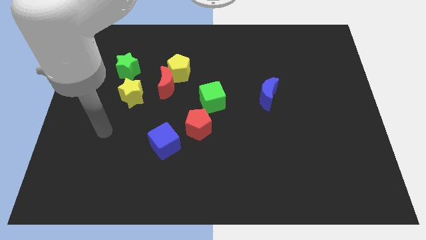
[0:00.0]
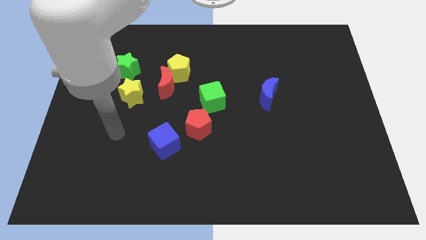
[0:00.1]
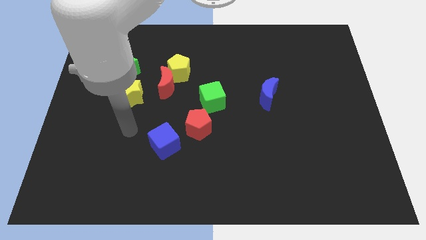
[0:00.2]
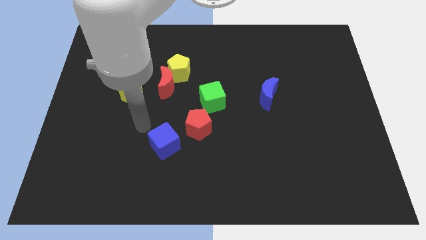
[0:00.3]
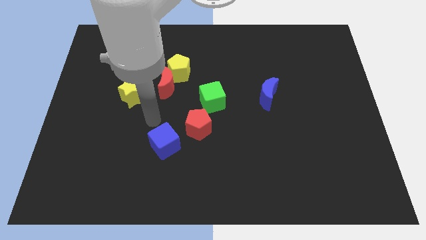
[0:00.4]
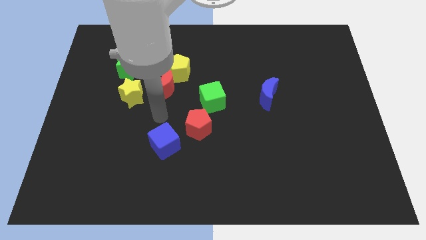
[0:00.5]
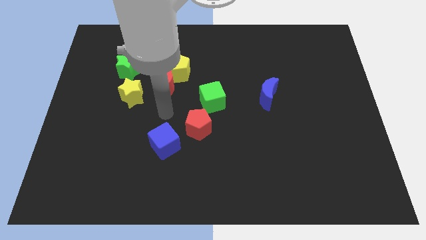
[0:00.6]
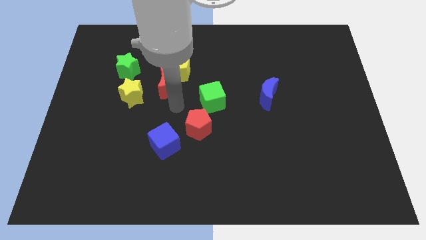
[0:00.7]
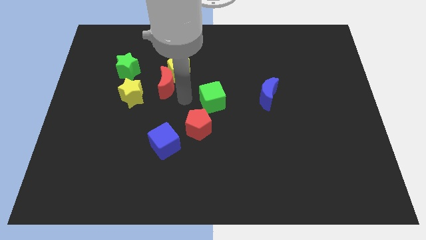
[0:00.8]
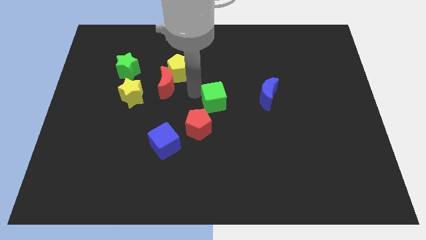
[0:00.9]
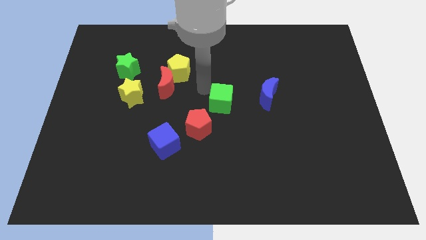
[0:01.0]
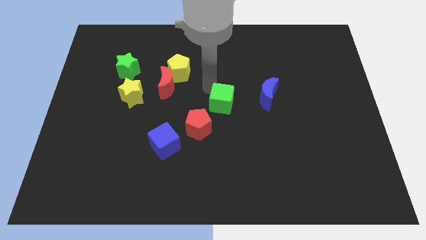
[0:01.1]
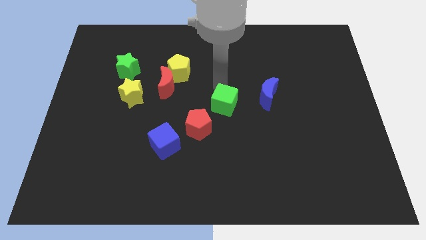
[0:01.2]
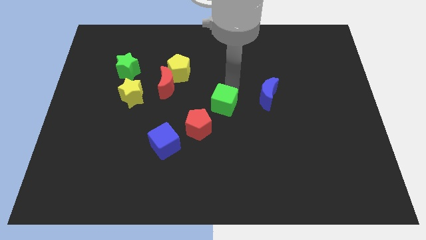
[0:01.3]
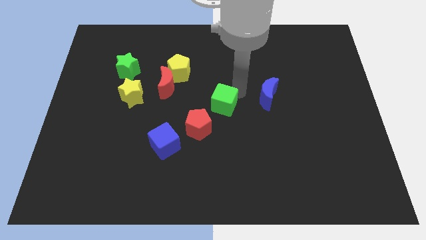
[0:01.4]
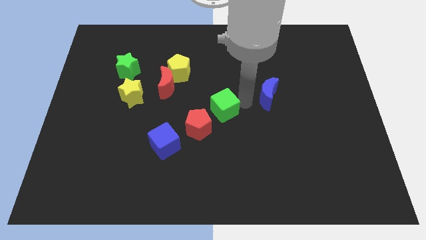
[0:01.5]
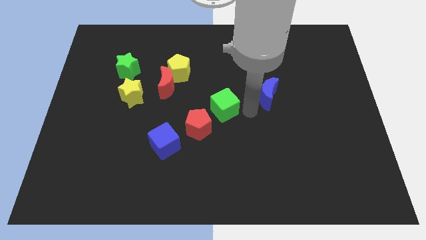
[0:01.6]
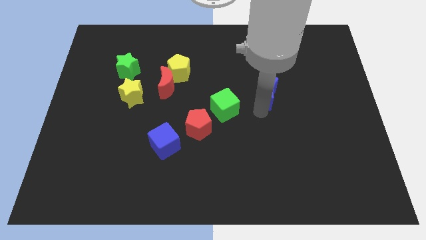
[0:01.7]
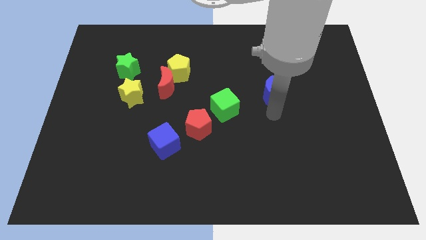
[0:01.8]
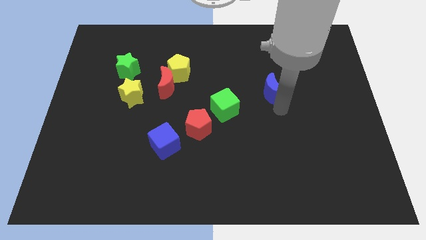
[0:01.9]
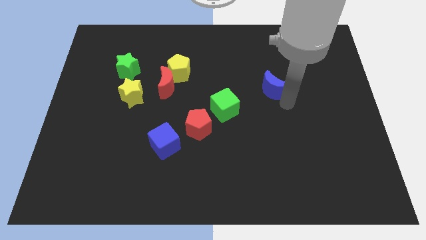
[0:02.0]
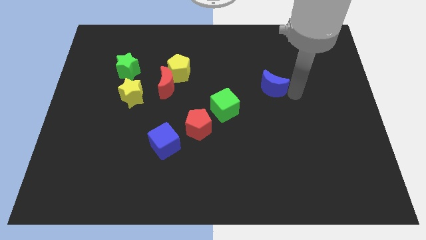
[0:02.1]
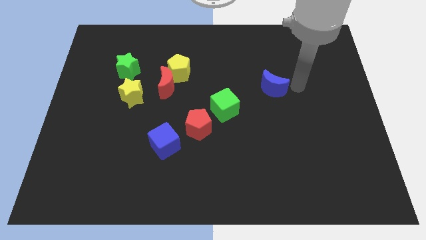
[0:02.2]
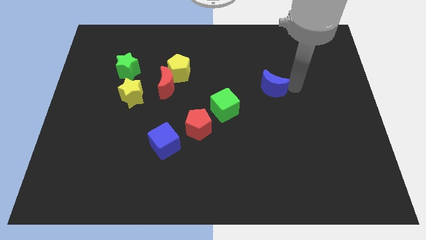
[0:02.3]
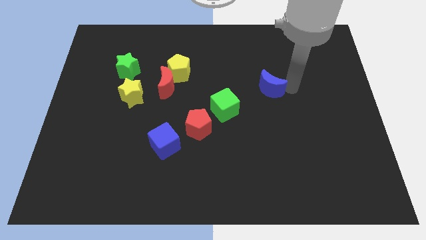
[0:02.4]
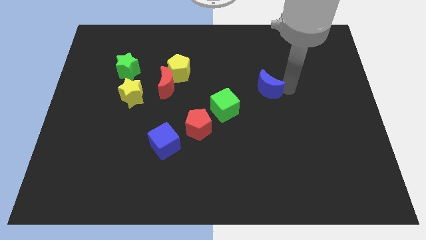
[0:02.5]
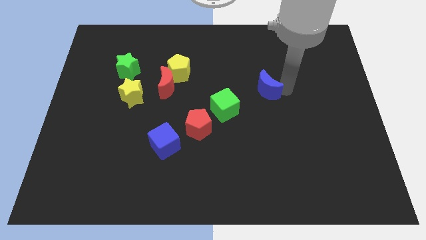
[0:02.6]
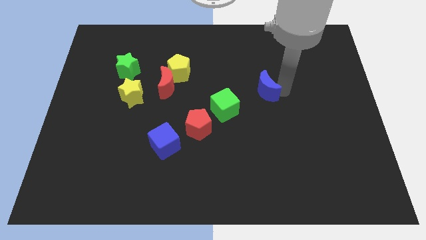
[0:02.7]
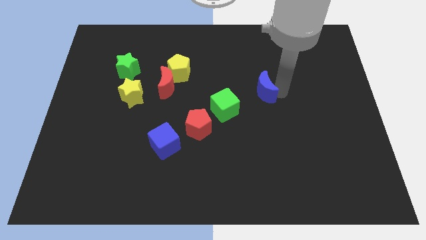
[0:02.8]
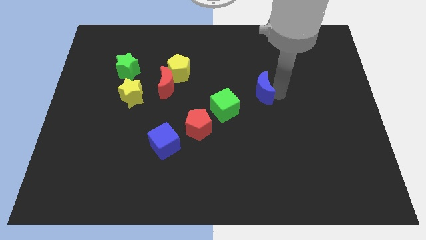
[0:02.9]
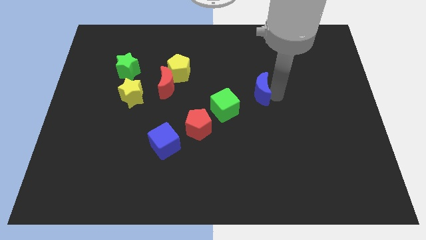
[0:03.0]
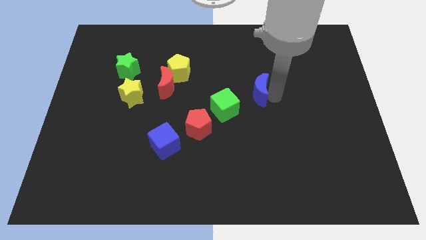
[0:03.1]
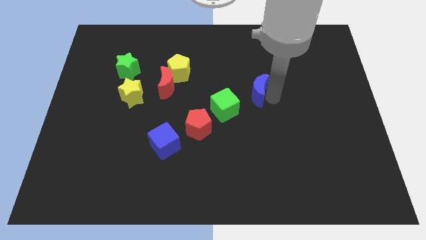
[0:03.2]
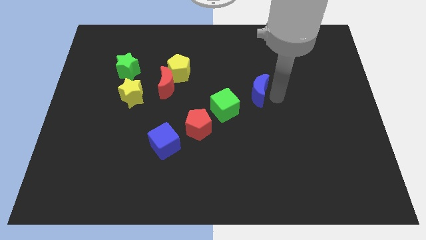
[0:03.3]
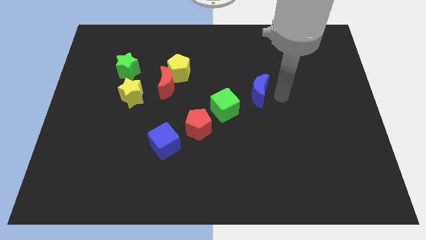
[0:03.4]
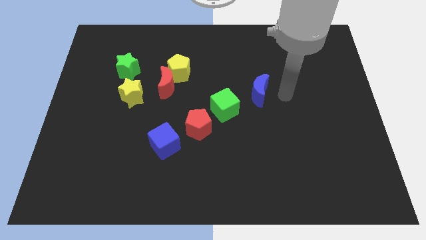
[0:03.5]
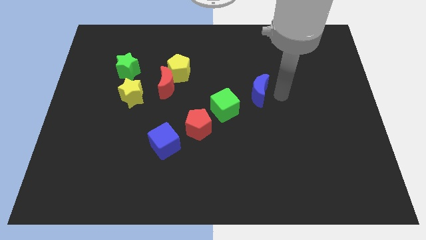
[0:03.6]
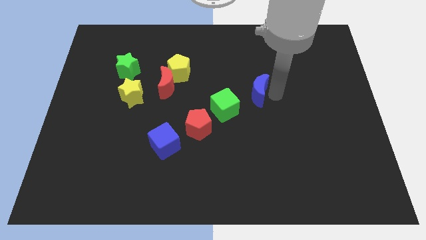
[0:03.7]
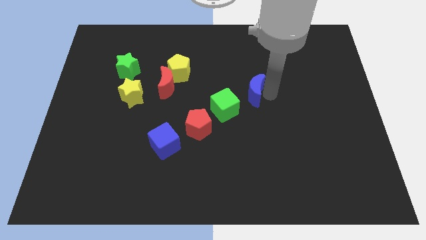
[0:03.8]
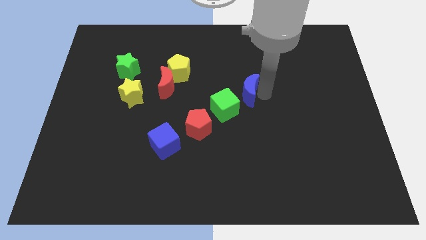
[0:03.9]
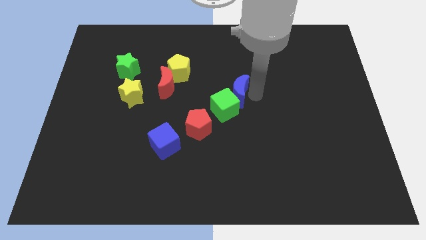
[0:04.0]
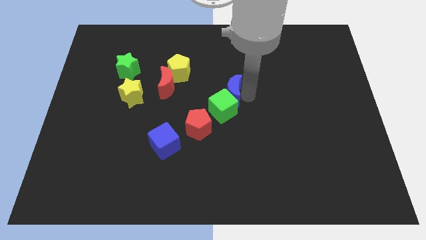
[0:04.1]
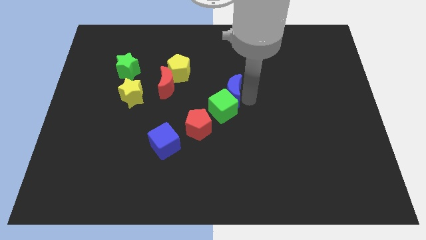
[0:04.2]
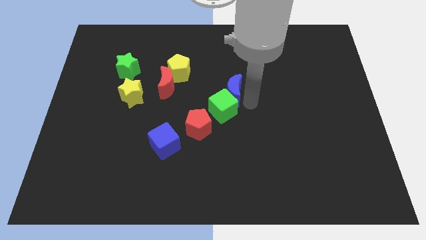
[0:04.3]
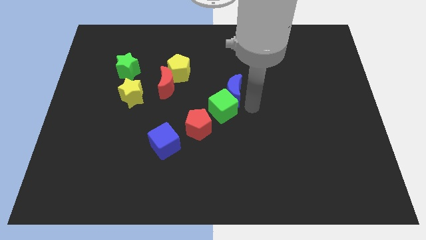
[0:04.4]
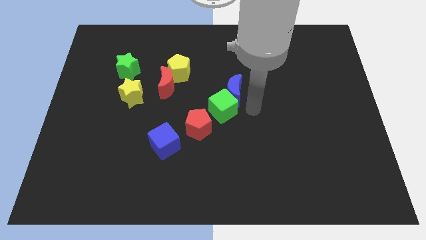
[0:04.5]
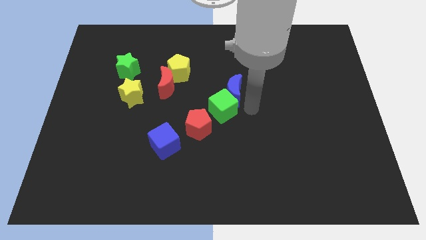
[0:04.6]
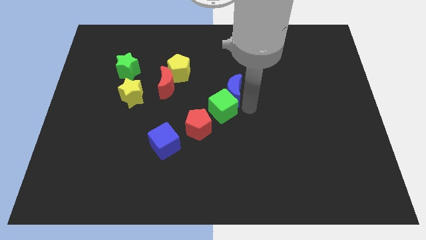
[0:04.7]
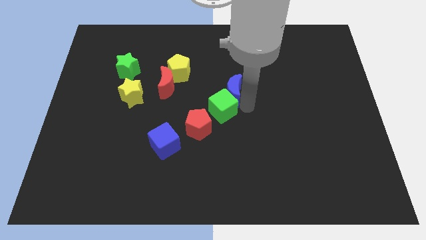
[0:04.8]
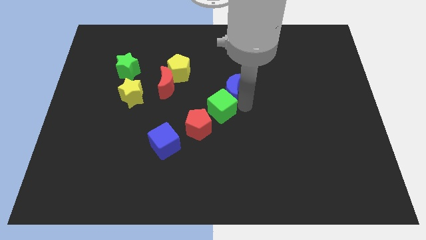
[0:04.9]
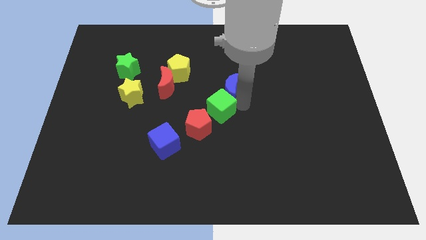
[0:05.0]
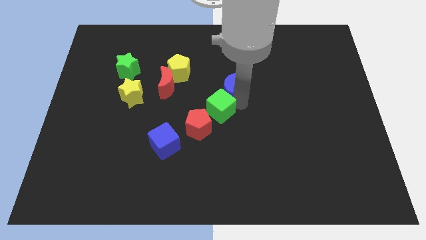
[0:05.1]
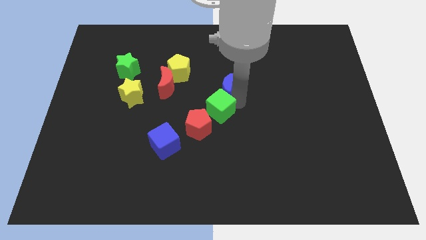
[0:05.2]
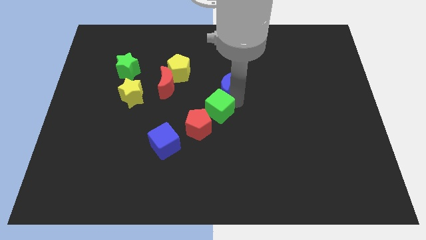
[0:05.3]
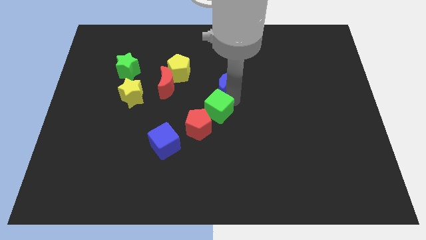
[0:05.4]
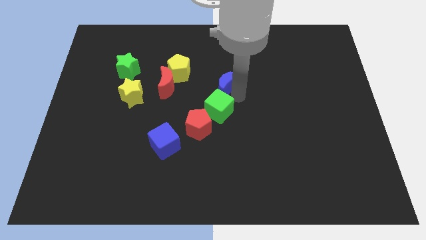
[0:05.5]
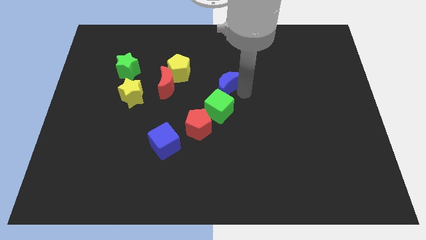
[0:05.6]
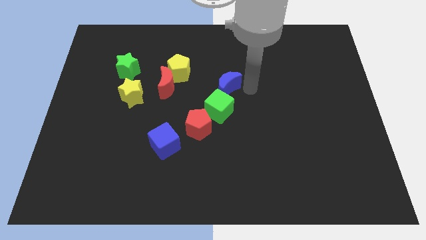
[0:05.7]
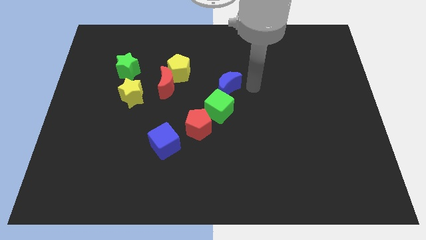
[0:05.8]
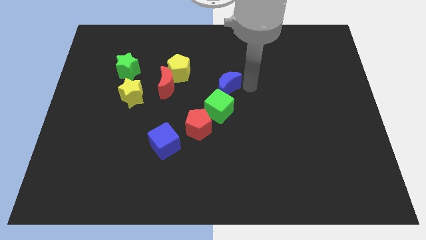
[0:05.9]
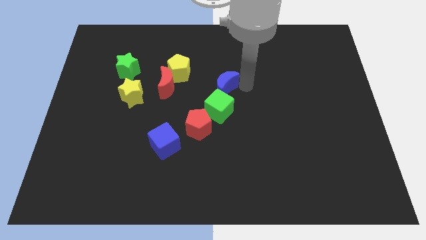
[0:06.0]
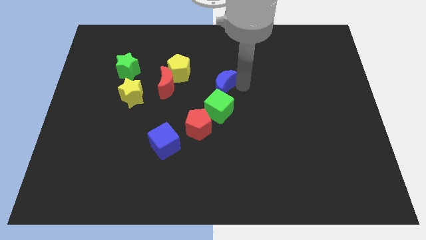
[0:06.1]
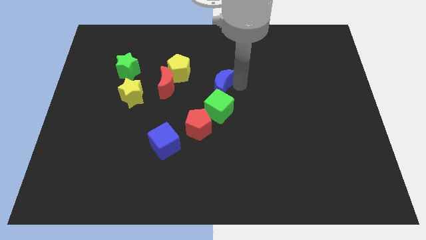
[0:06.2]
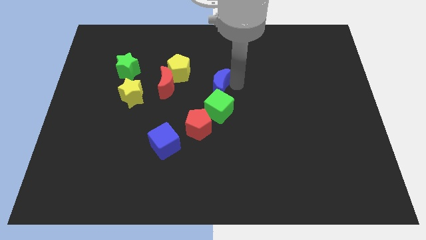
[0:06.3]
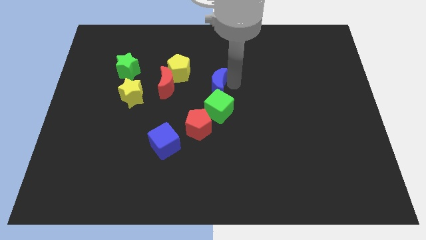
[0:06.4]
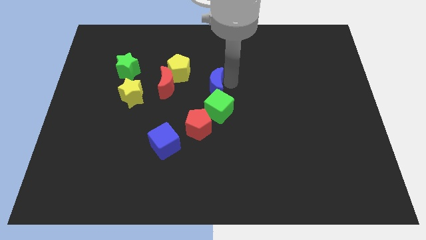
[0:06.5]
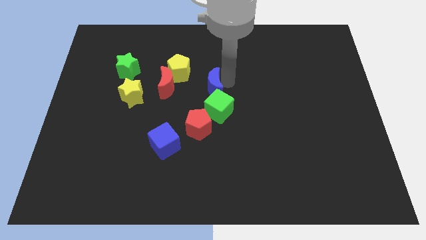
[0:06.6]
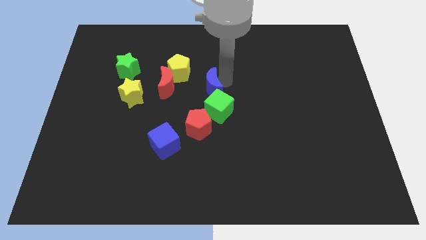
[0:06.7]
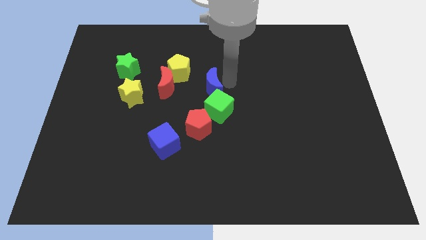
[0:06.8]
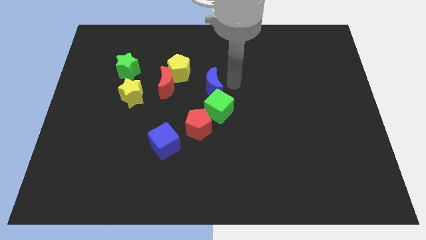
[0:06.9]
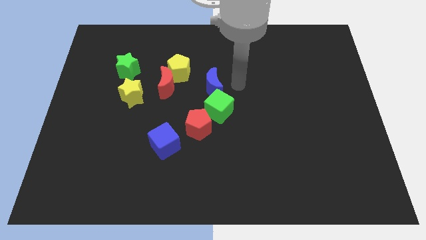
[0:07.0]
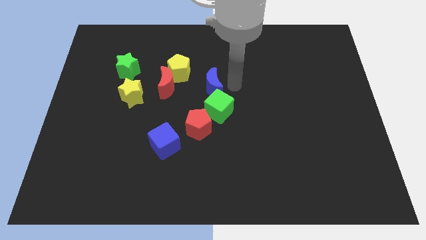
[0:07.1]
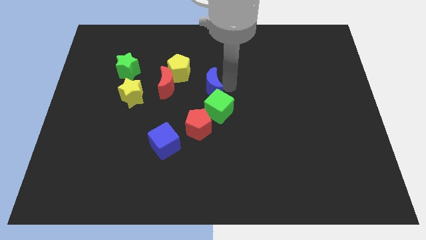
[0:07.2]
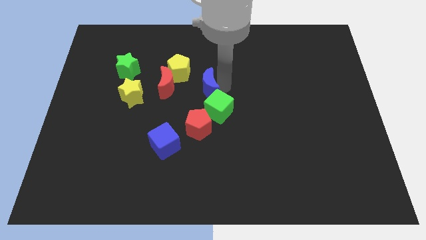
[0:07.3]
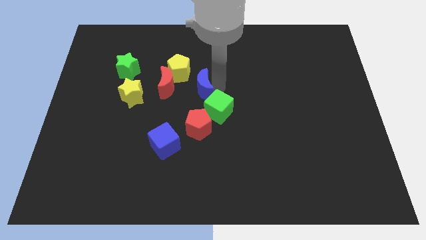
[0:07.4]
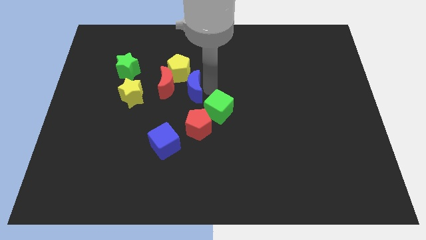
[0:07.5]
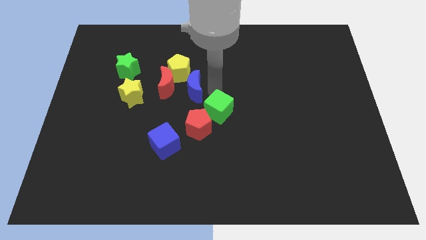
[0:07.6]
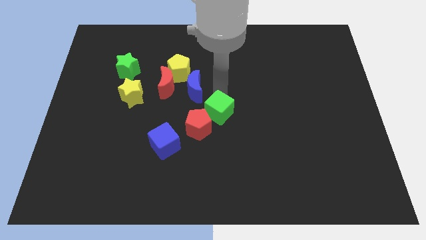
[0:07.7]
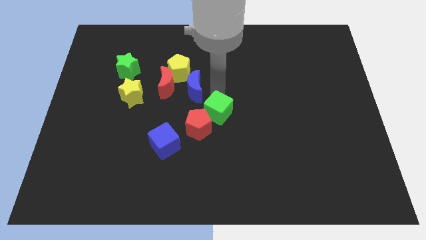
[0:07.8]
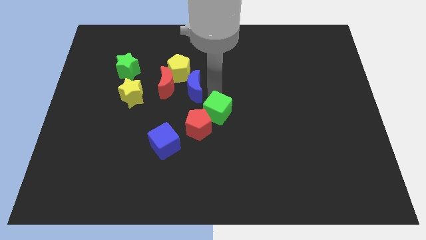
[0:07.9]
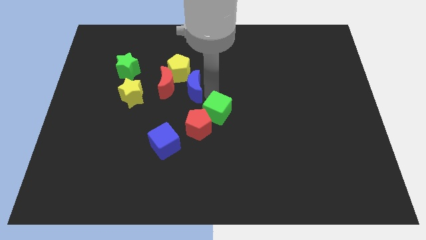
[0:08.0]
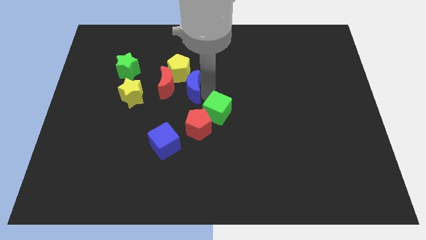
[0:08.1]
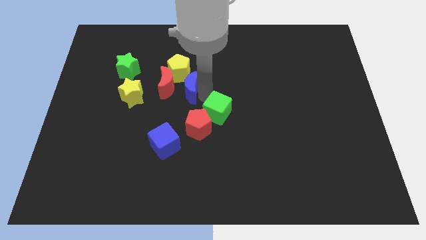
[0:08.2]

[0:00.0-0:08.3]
put the blue moon next to the red moon
